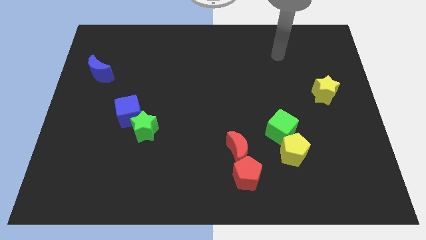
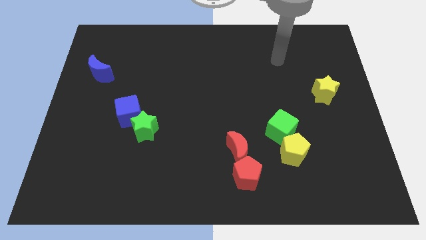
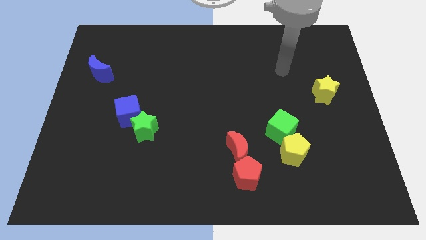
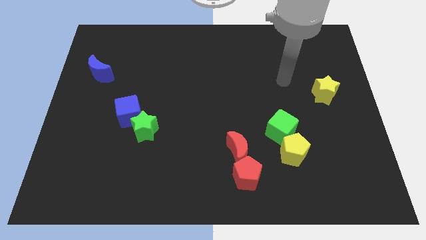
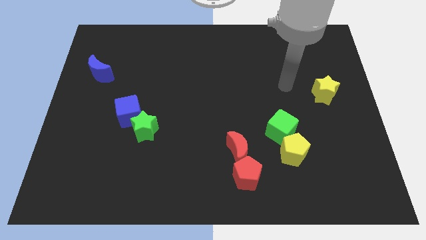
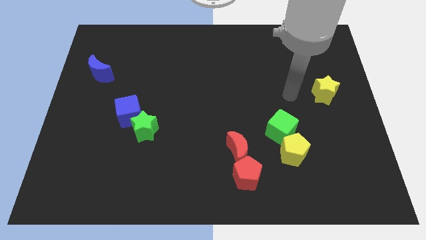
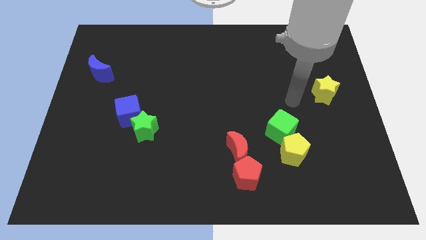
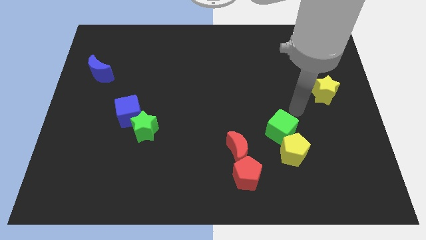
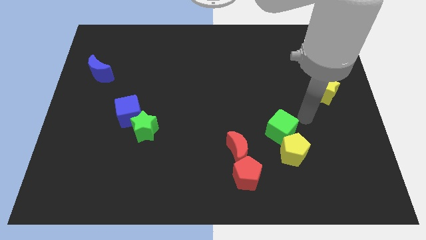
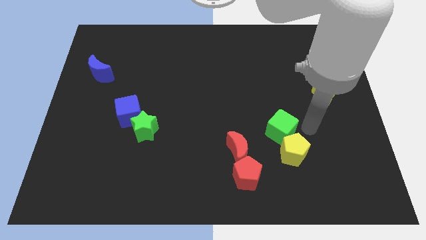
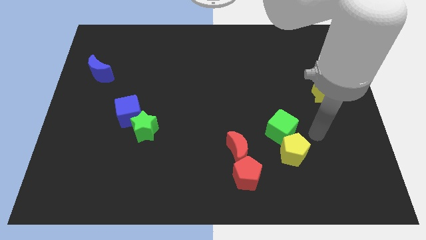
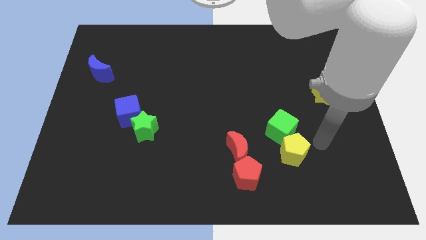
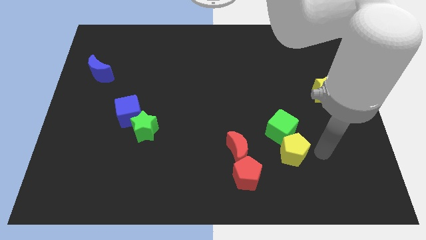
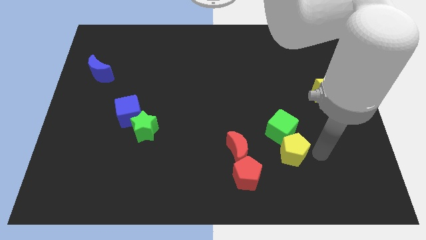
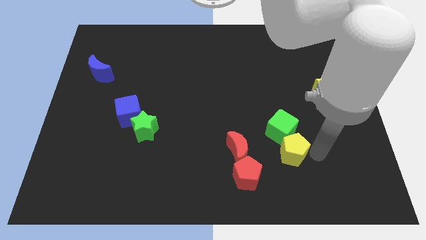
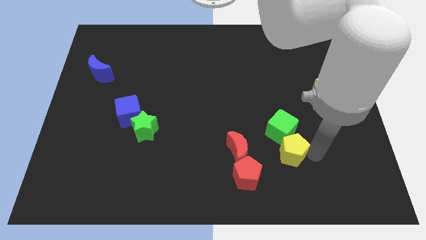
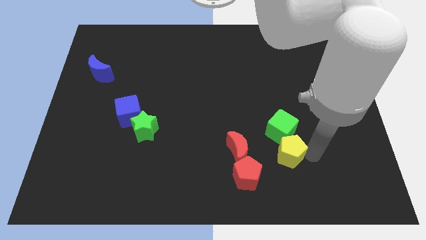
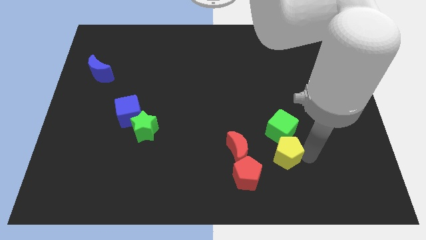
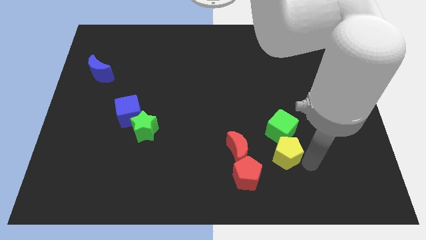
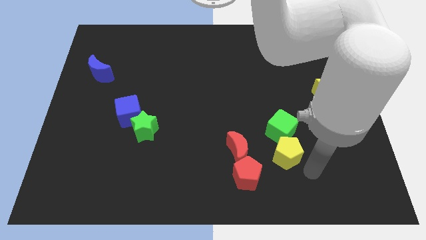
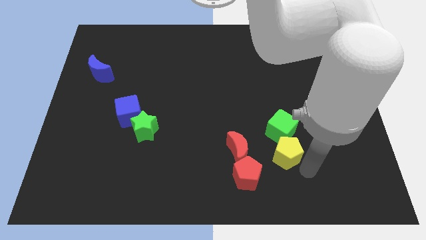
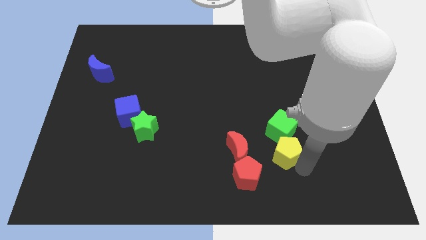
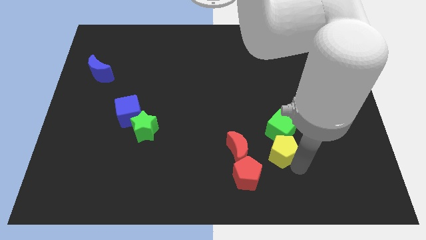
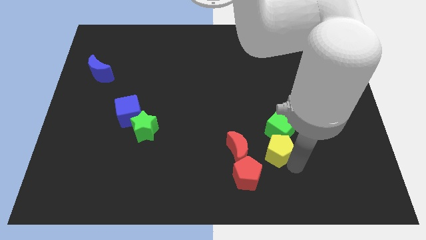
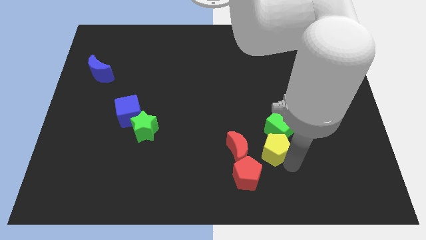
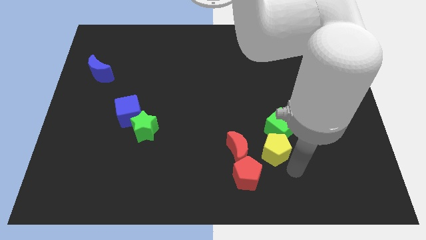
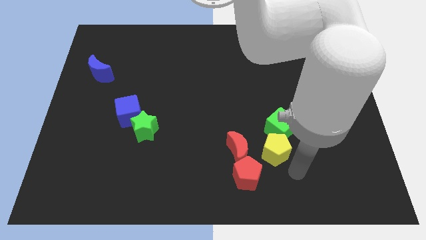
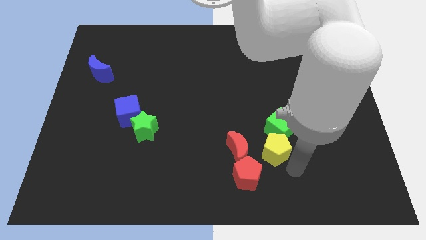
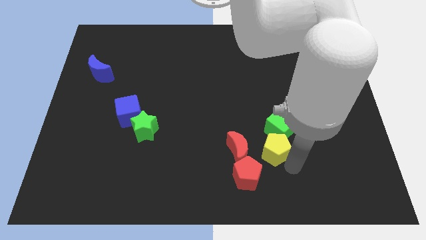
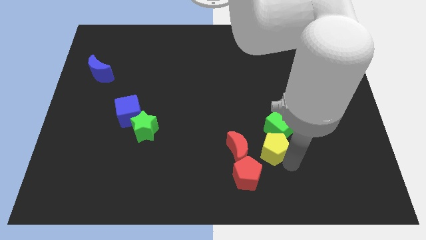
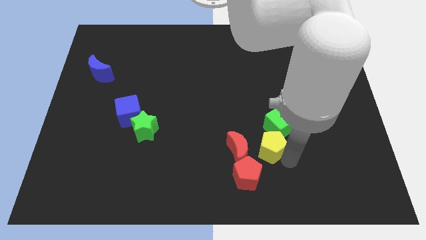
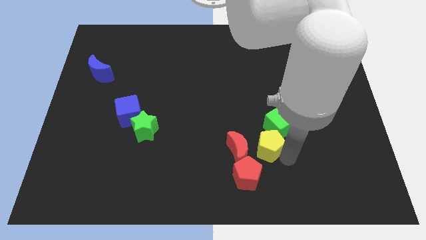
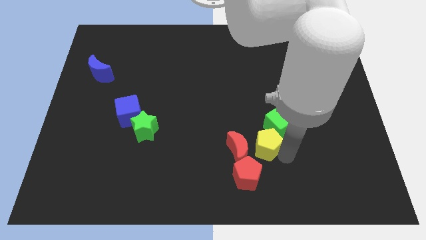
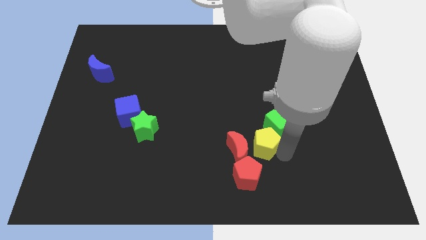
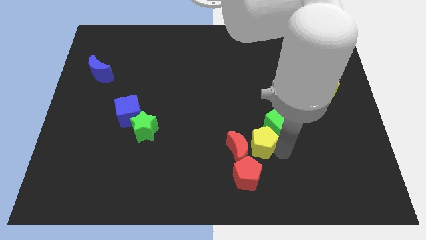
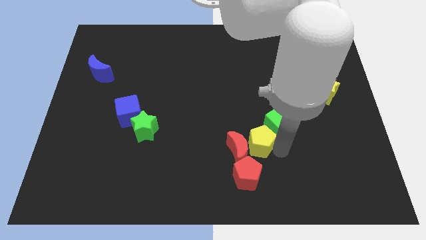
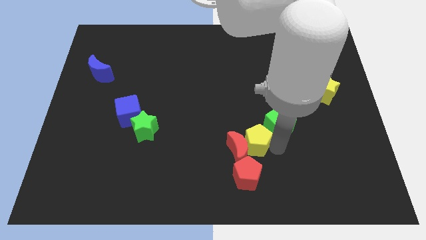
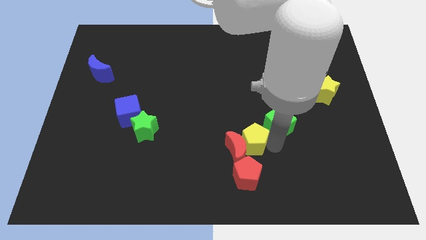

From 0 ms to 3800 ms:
slightly push the yellow pentagon upwards and to the left diagonally

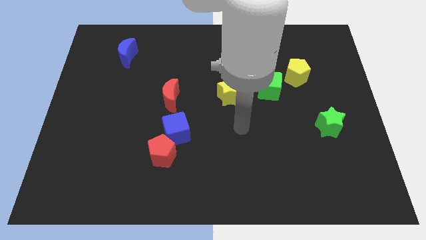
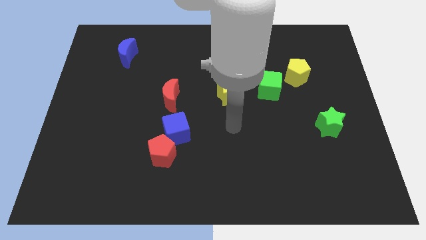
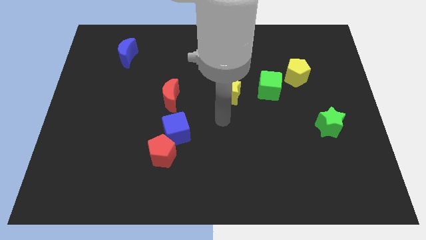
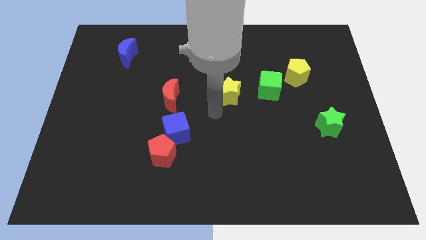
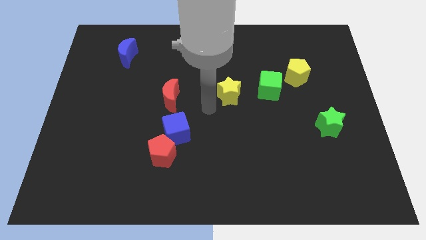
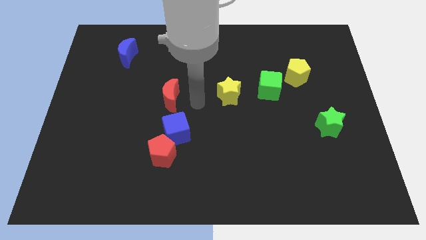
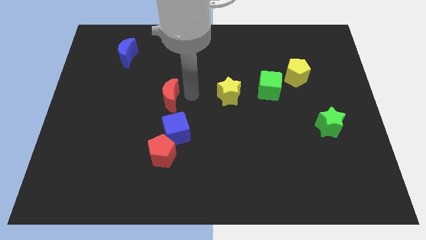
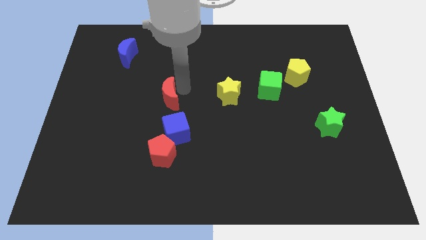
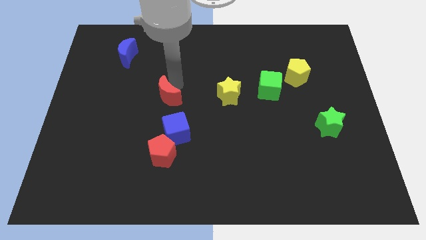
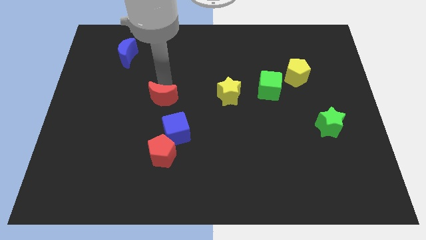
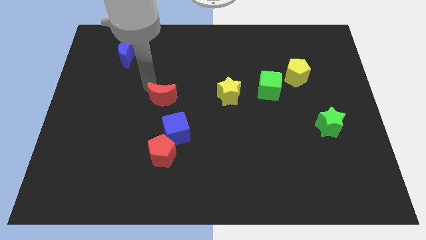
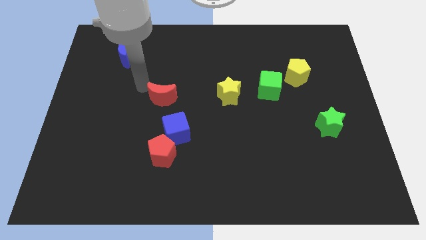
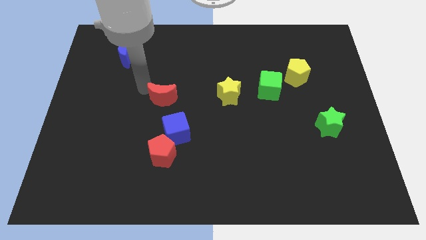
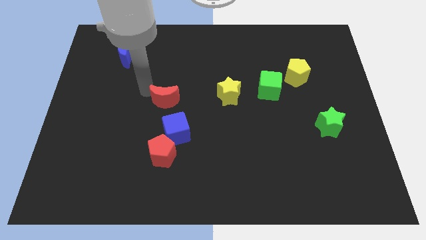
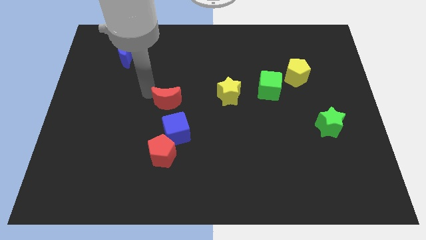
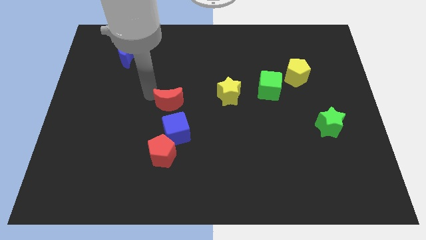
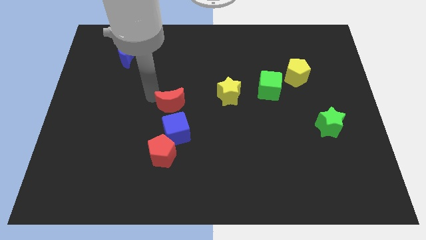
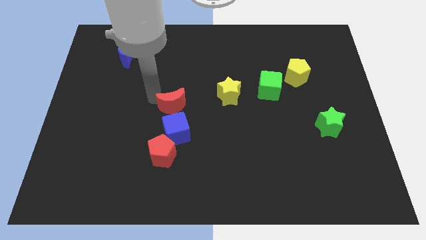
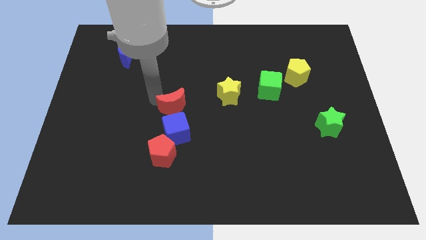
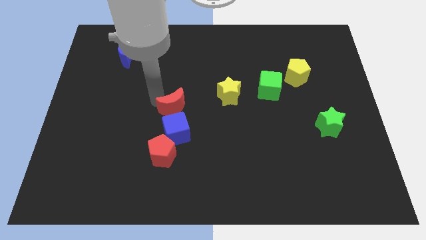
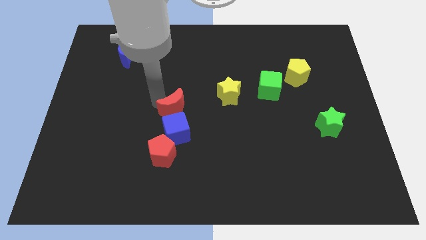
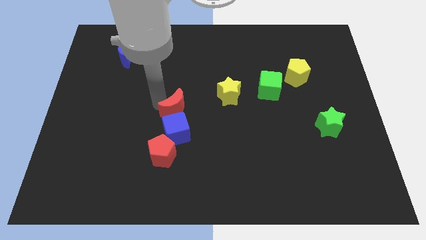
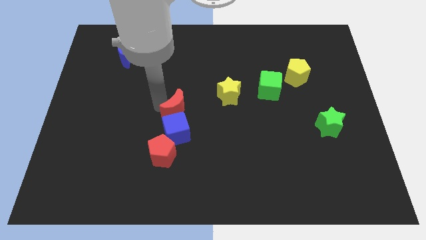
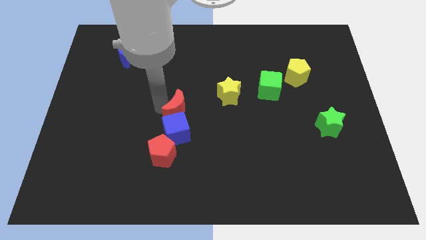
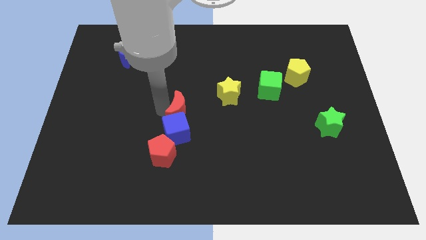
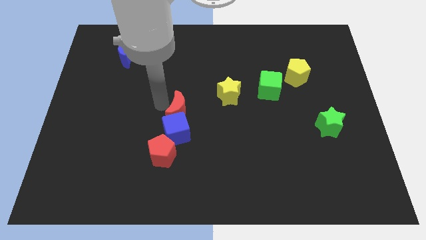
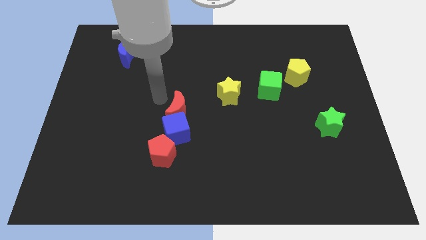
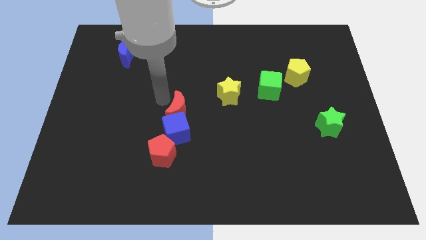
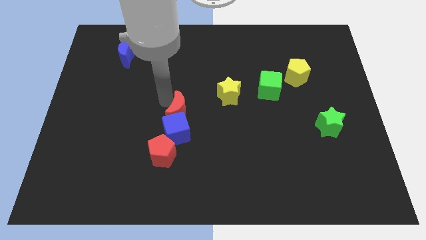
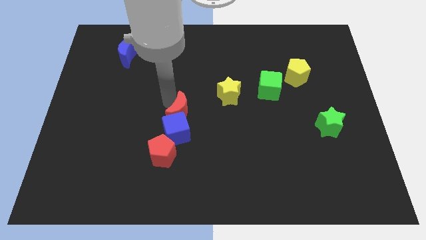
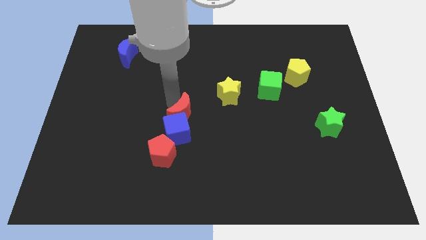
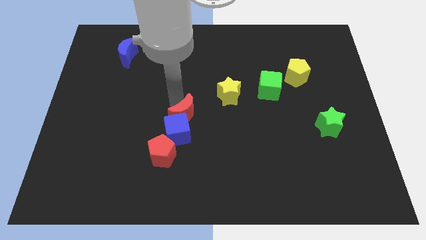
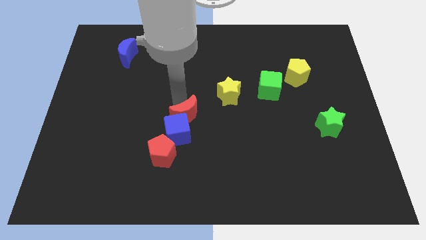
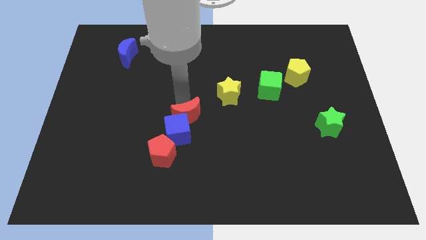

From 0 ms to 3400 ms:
push the red moon slightly downwards and then right

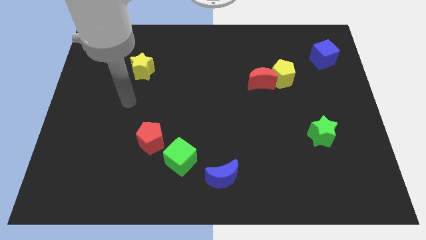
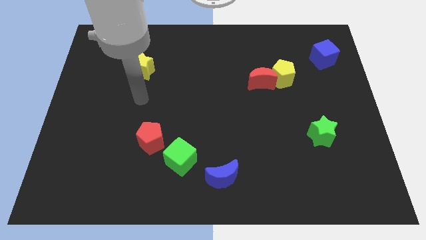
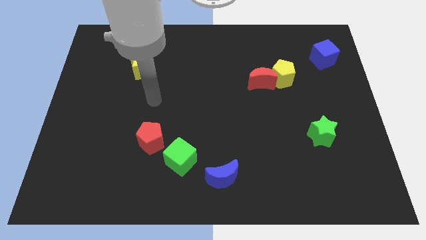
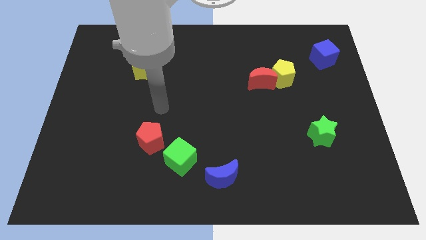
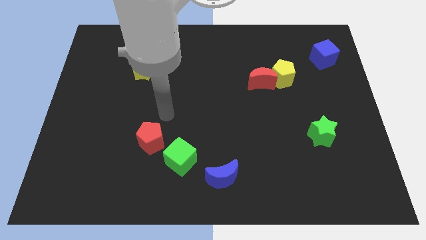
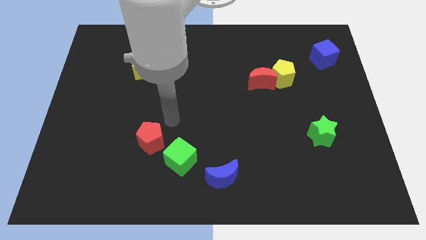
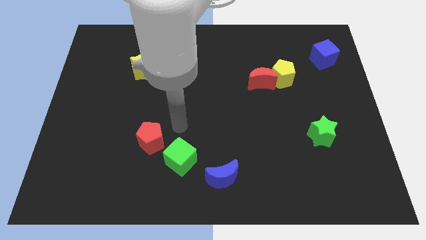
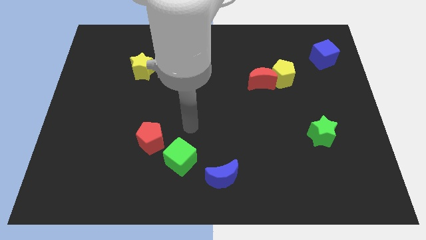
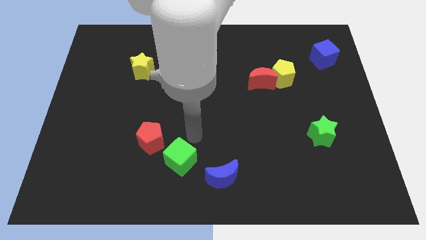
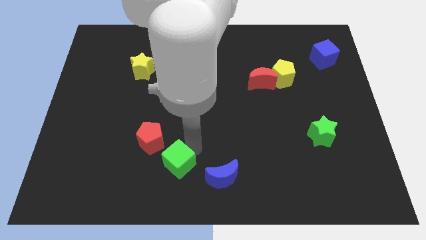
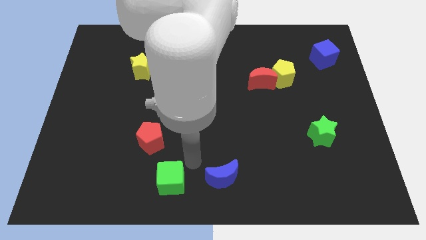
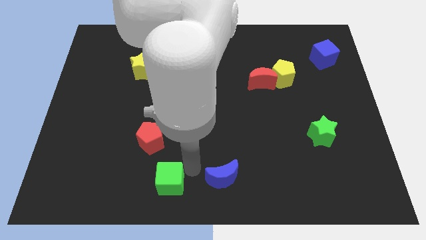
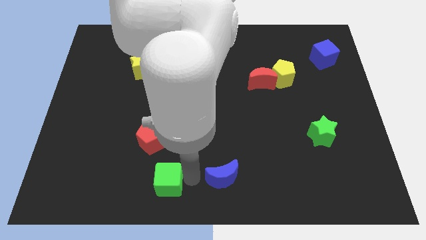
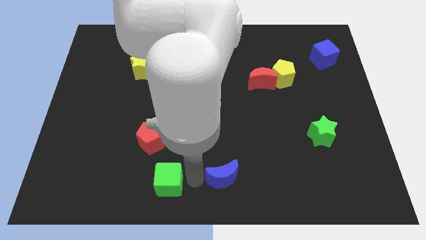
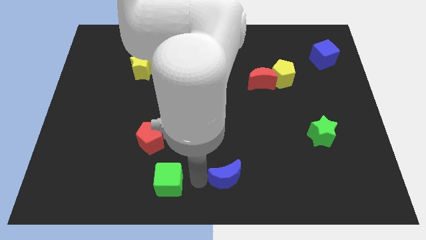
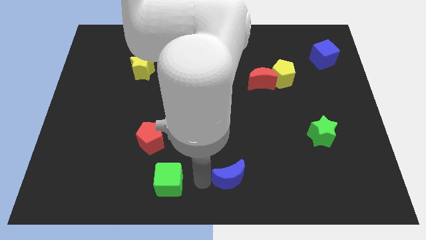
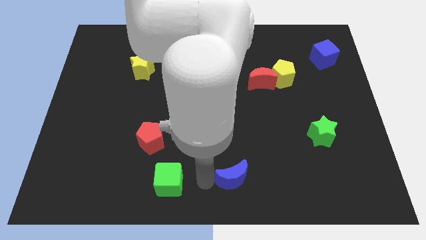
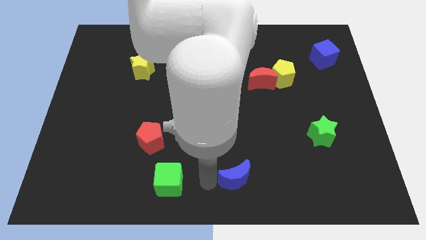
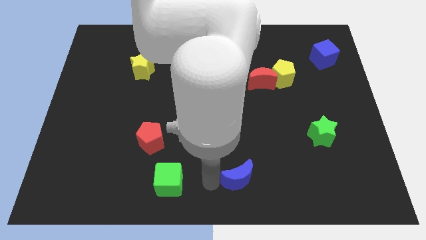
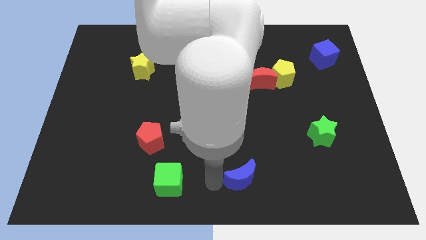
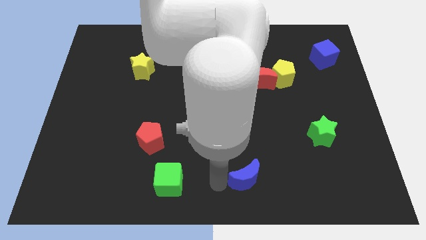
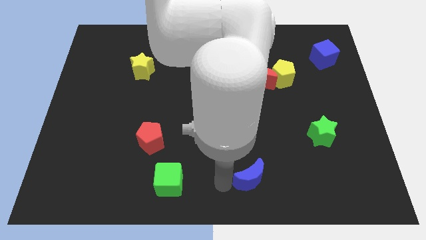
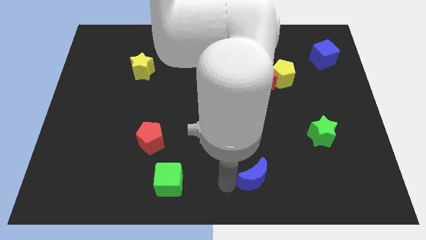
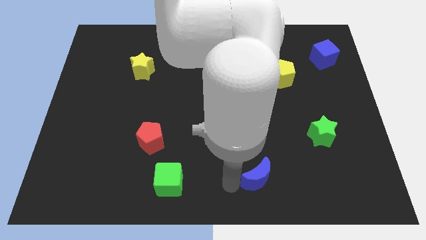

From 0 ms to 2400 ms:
slide the blue moon slightly to the right
